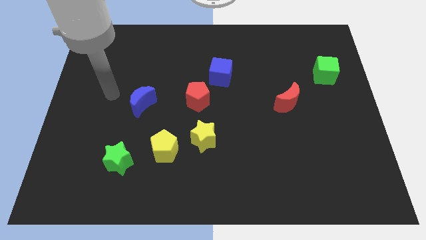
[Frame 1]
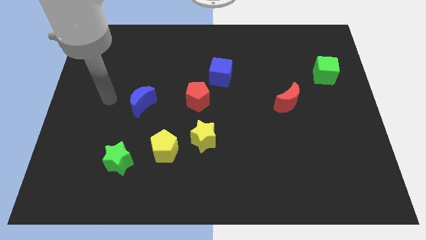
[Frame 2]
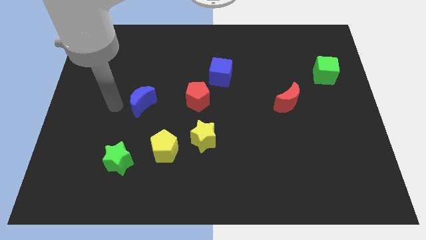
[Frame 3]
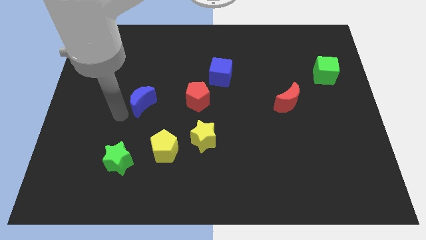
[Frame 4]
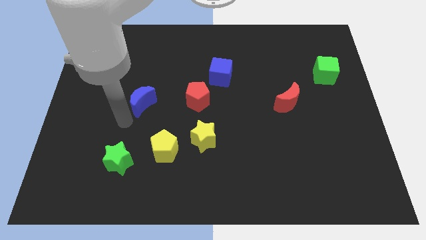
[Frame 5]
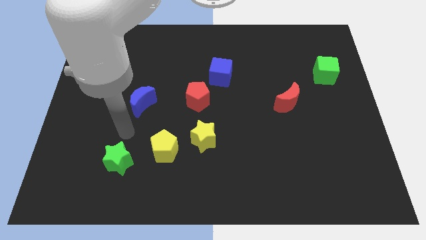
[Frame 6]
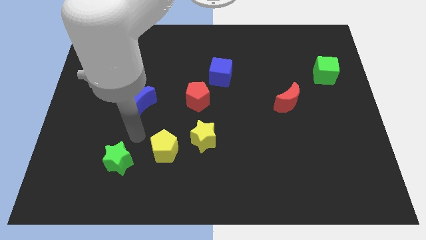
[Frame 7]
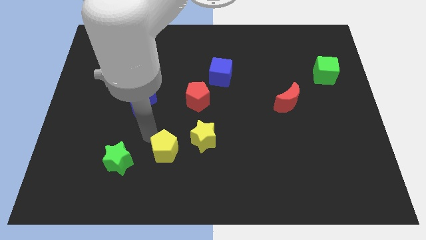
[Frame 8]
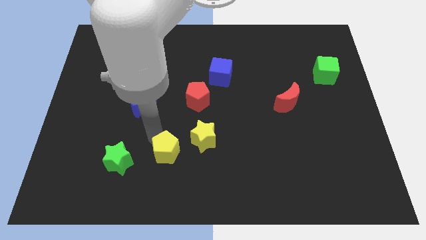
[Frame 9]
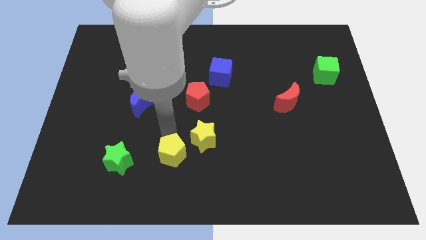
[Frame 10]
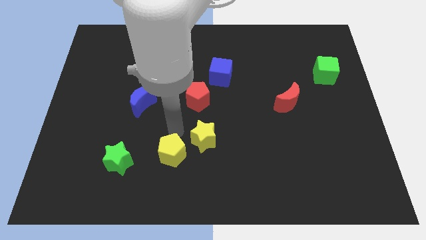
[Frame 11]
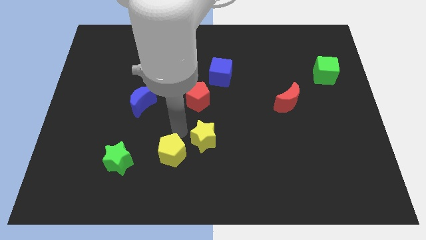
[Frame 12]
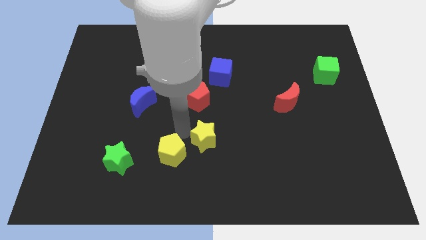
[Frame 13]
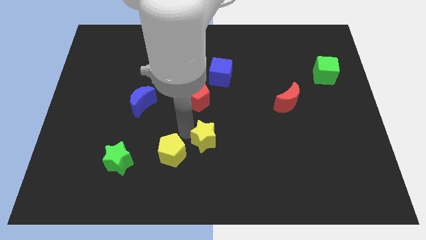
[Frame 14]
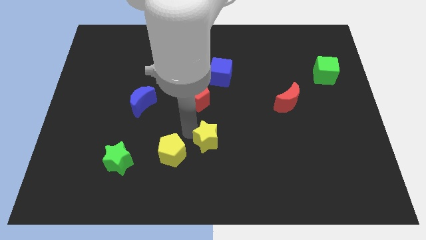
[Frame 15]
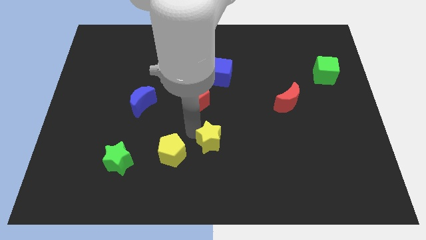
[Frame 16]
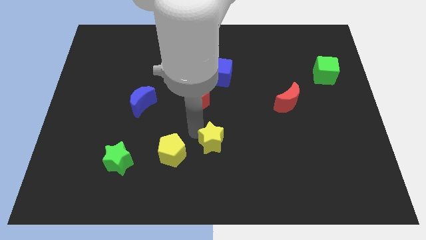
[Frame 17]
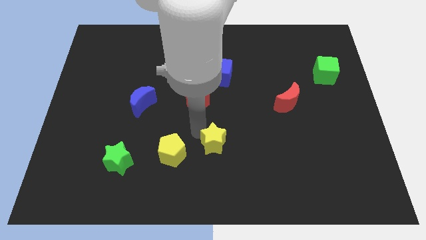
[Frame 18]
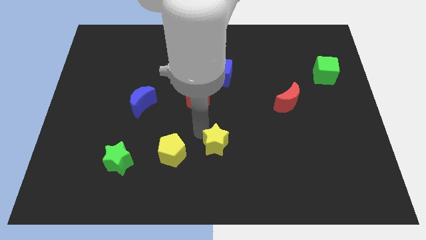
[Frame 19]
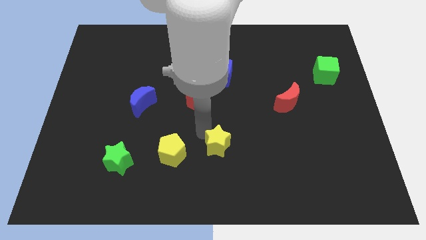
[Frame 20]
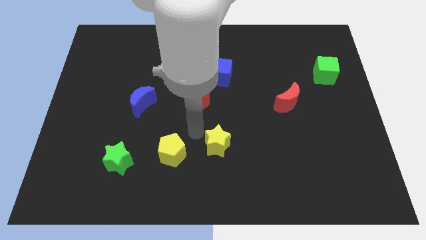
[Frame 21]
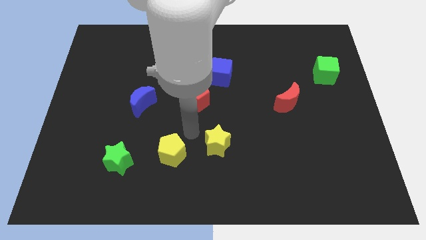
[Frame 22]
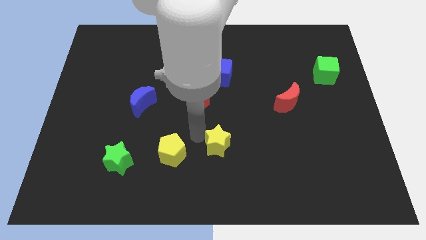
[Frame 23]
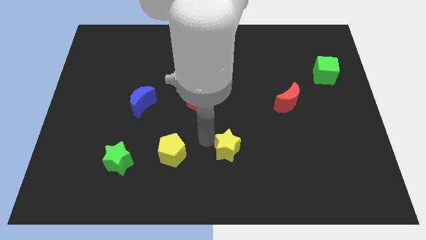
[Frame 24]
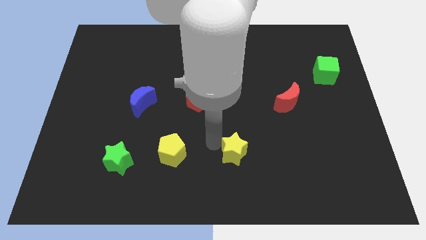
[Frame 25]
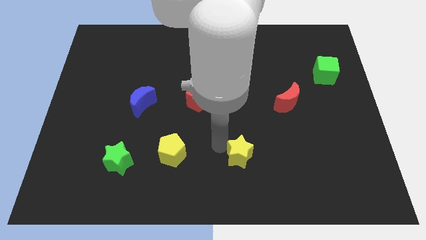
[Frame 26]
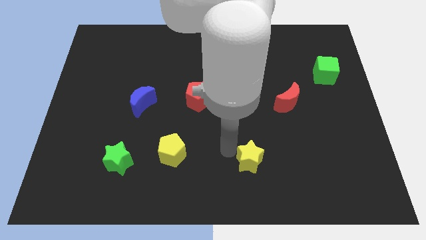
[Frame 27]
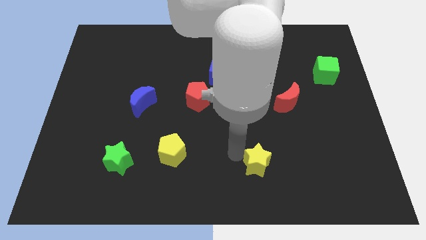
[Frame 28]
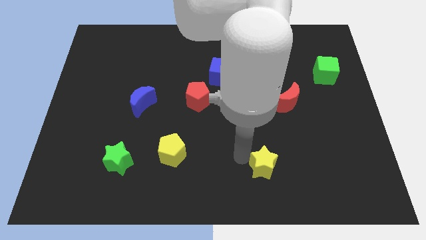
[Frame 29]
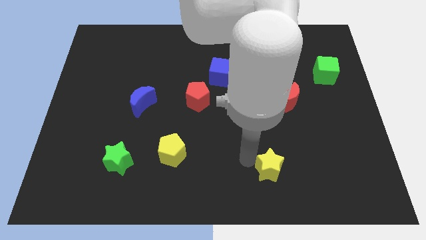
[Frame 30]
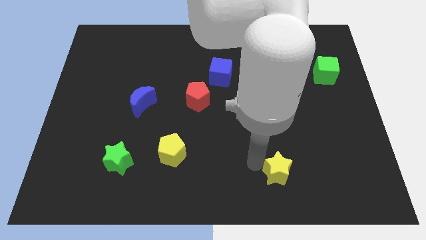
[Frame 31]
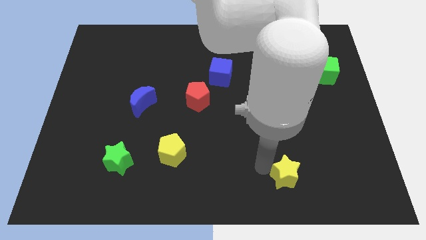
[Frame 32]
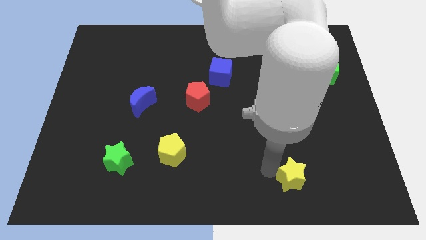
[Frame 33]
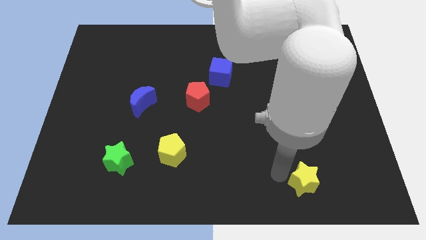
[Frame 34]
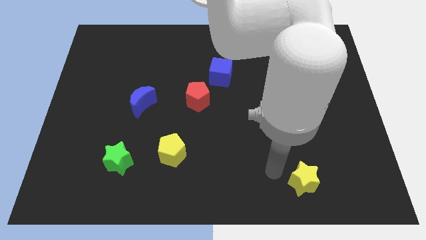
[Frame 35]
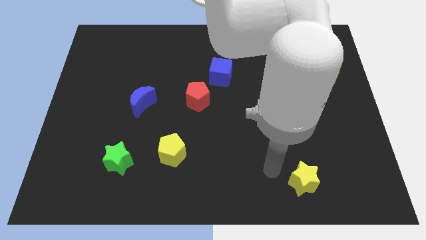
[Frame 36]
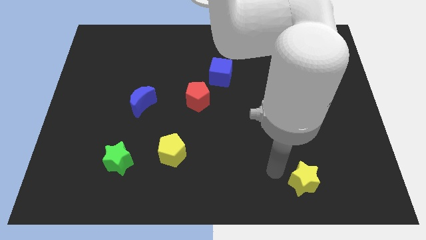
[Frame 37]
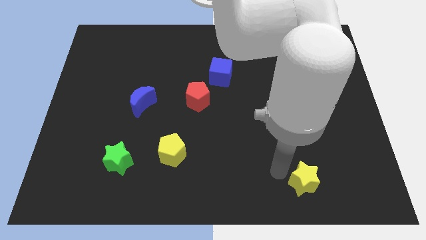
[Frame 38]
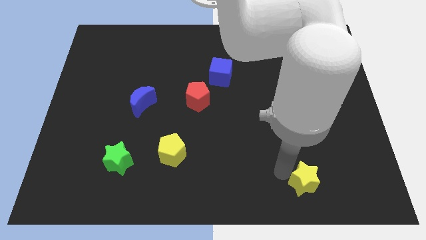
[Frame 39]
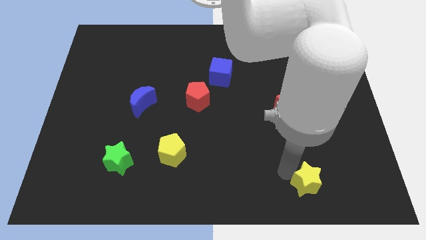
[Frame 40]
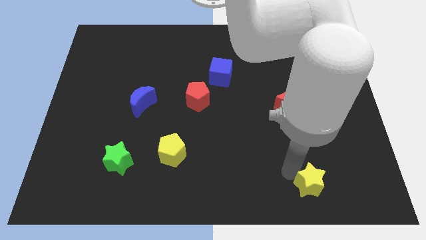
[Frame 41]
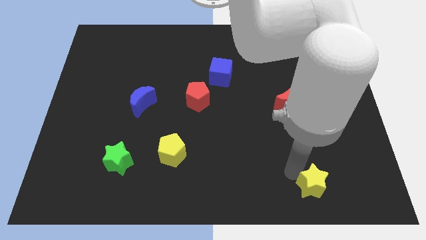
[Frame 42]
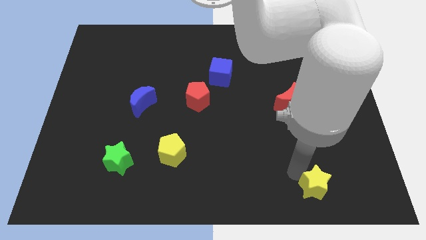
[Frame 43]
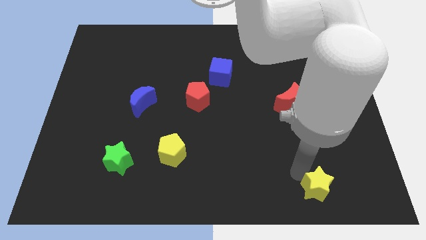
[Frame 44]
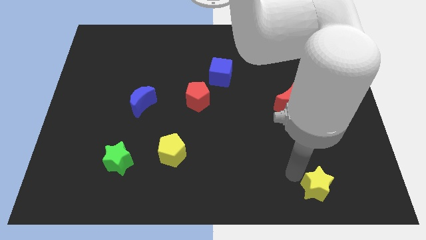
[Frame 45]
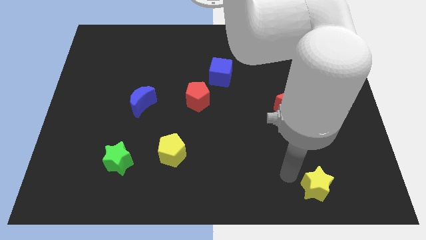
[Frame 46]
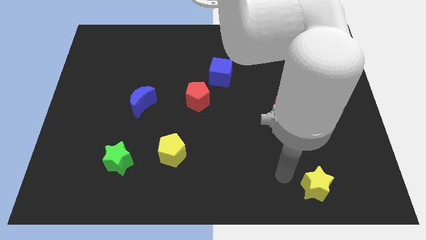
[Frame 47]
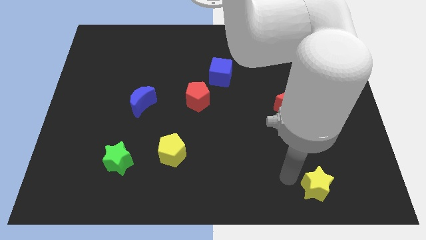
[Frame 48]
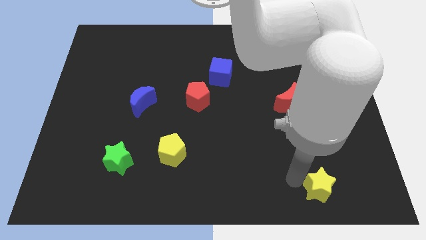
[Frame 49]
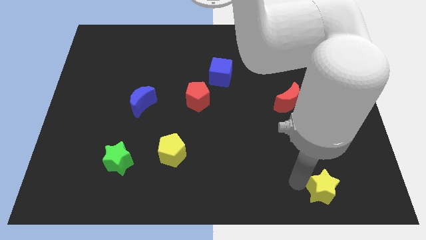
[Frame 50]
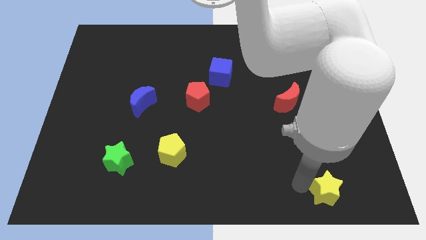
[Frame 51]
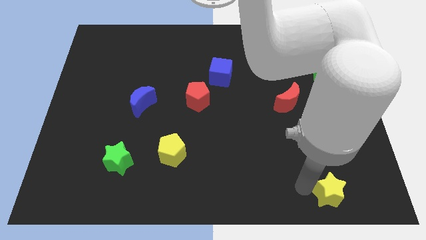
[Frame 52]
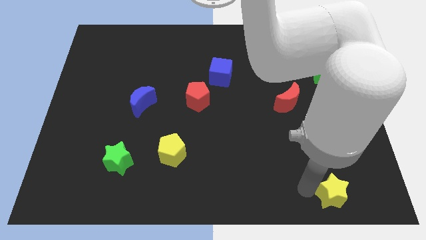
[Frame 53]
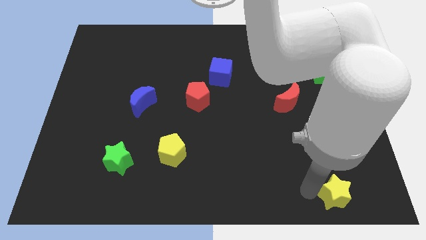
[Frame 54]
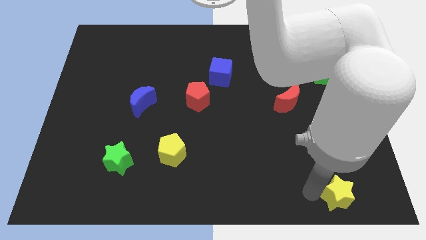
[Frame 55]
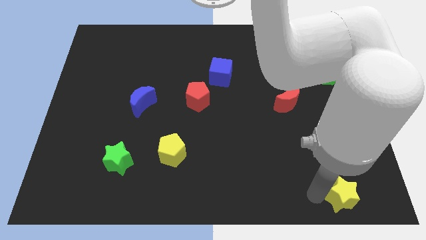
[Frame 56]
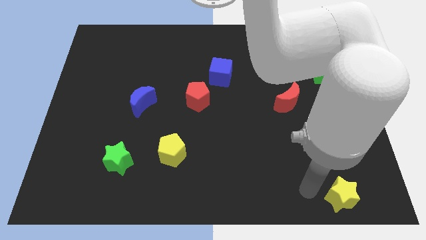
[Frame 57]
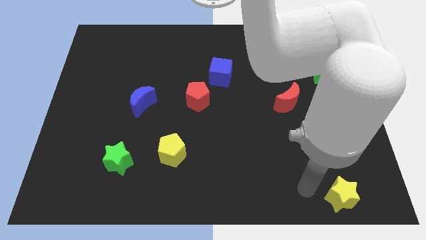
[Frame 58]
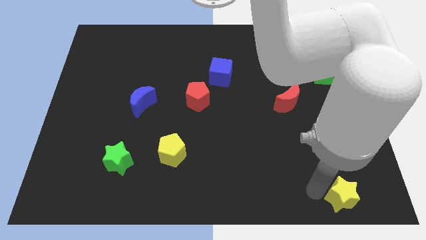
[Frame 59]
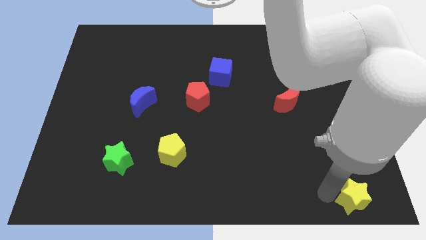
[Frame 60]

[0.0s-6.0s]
put the yellow star to the bottom right

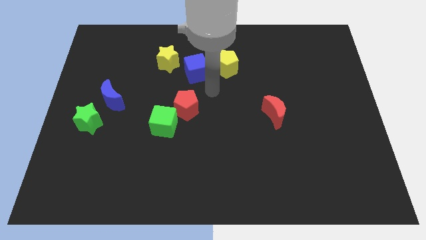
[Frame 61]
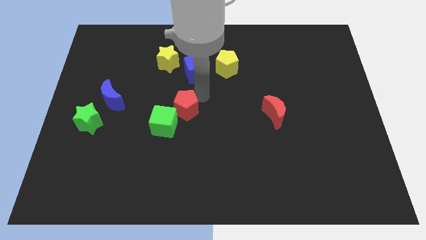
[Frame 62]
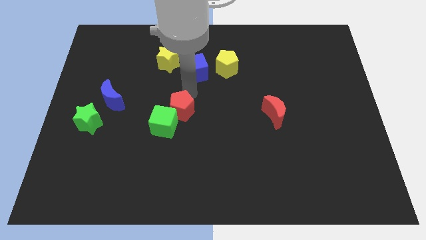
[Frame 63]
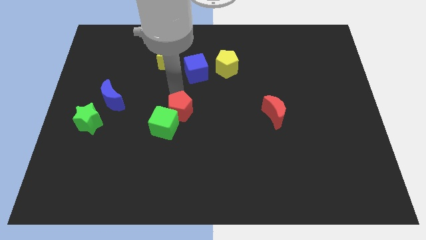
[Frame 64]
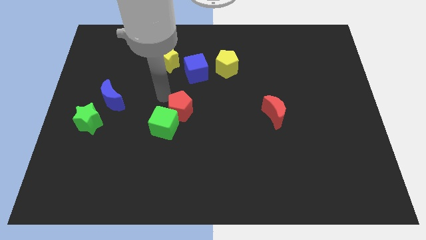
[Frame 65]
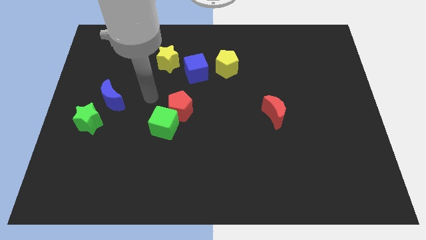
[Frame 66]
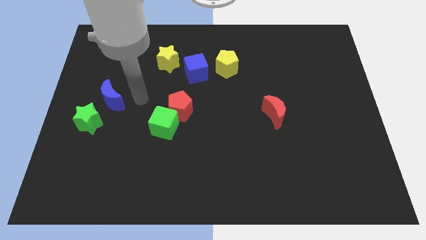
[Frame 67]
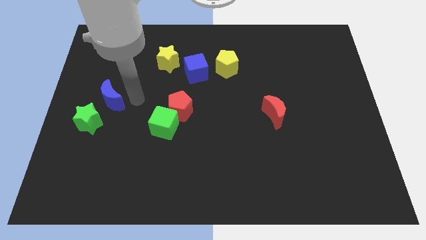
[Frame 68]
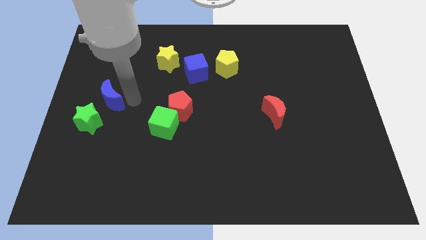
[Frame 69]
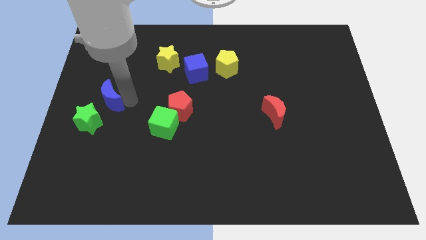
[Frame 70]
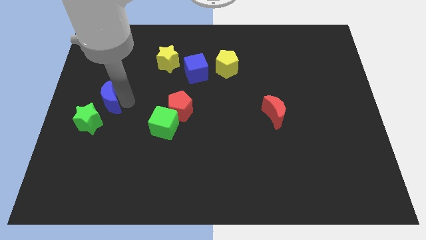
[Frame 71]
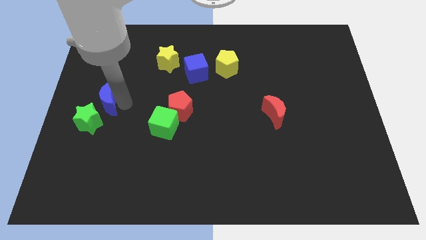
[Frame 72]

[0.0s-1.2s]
slide the blue moon to the left side
